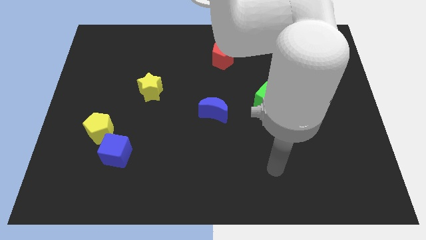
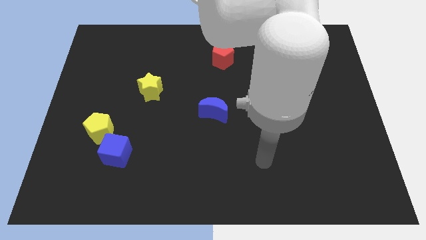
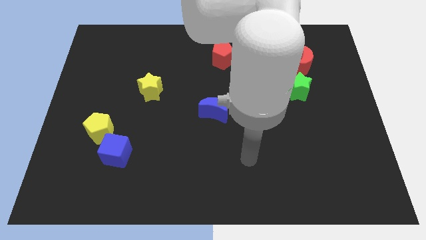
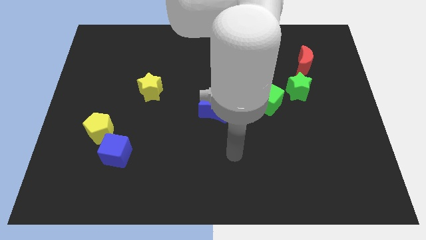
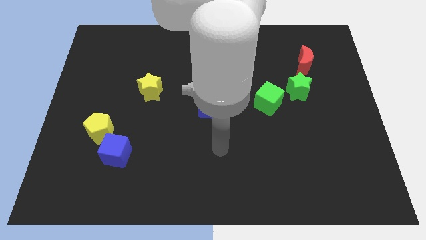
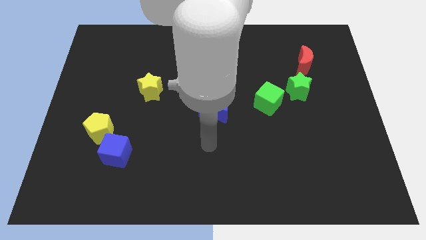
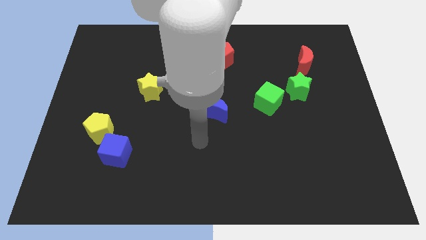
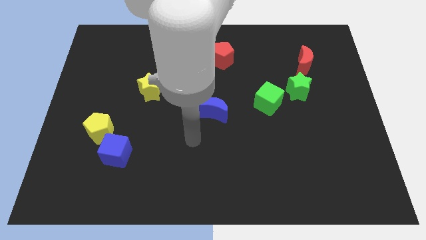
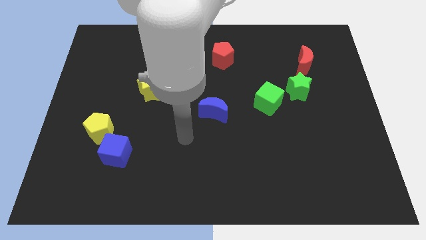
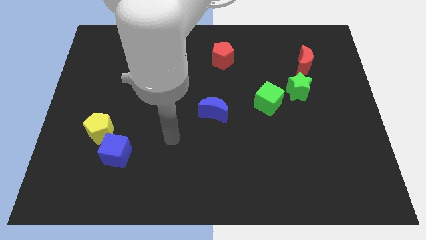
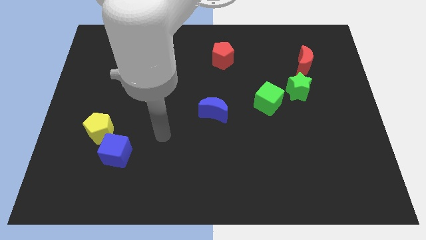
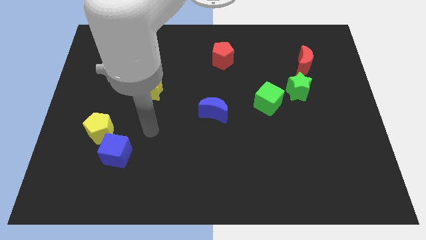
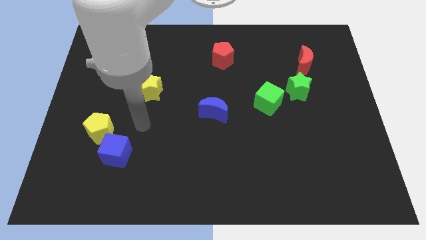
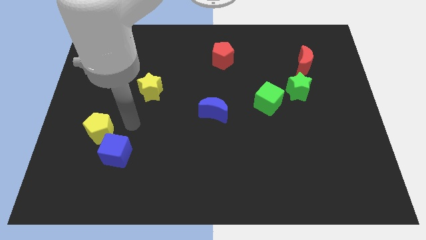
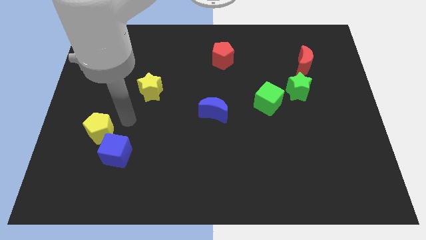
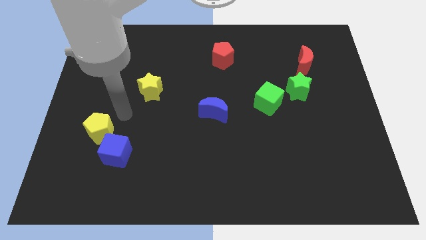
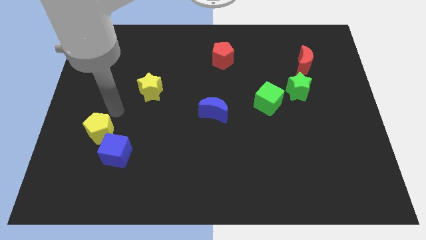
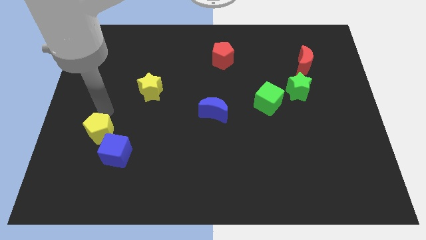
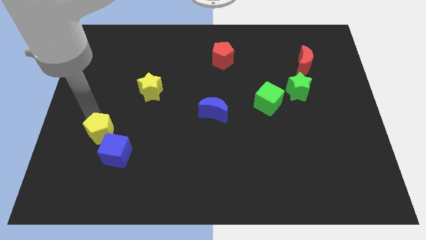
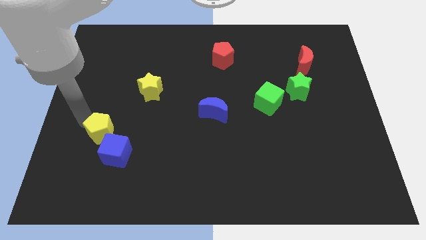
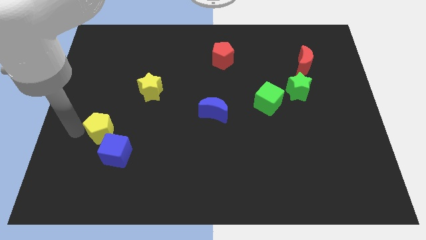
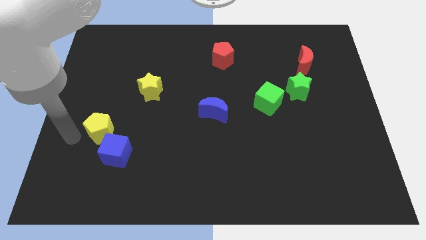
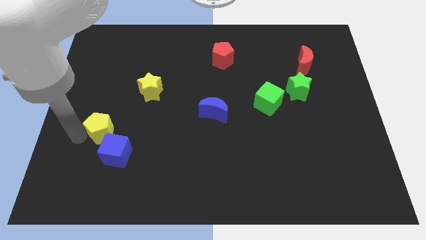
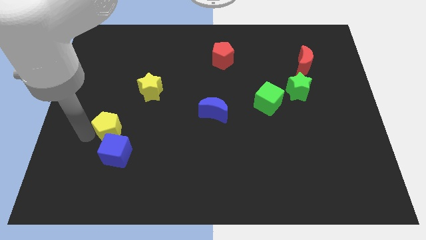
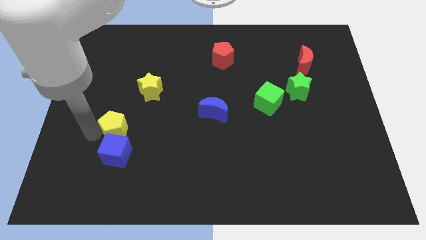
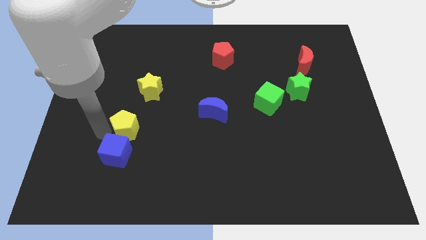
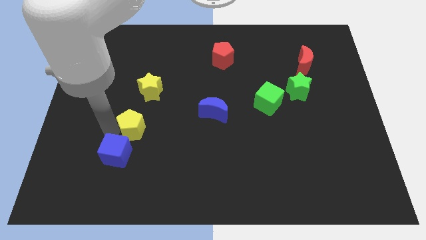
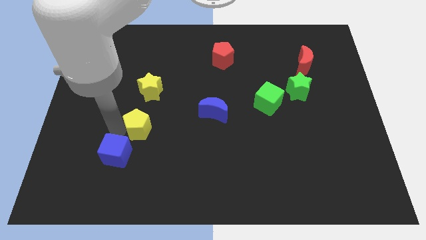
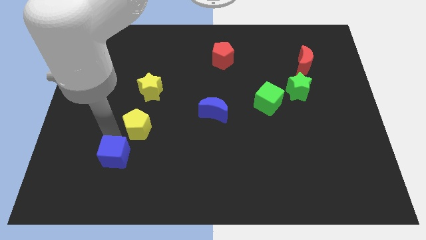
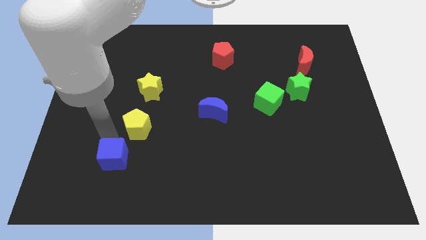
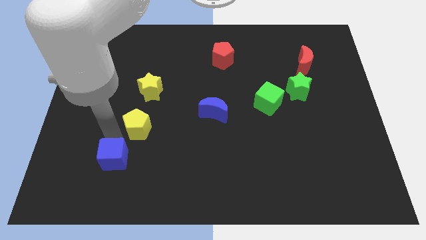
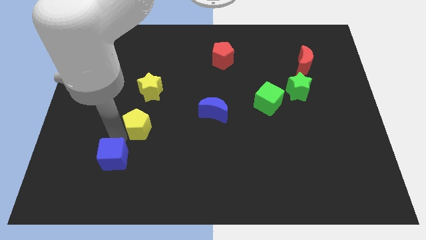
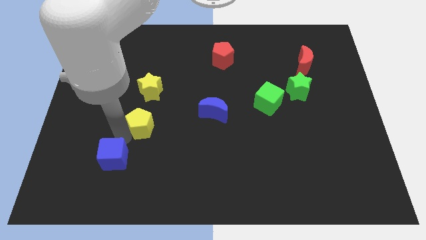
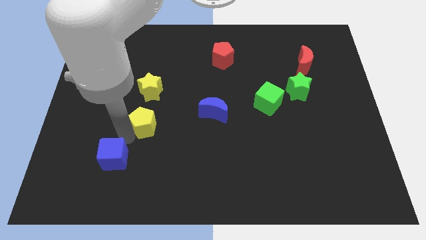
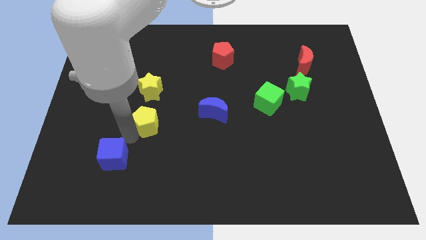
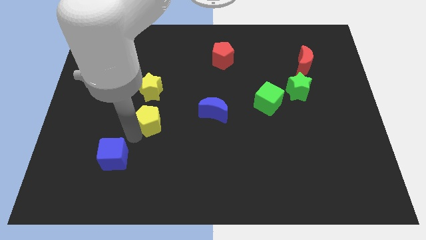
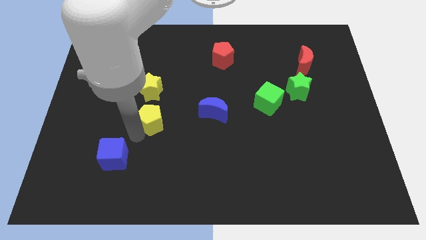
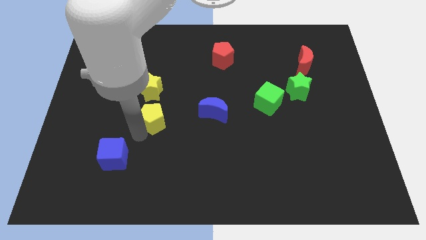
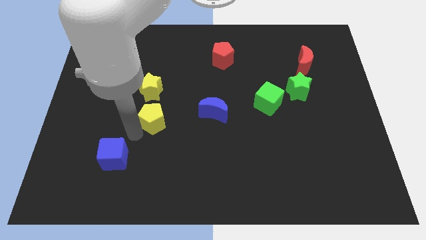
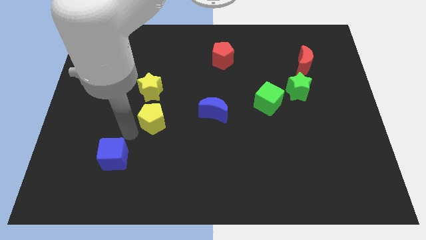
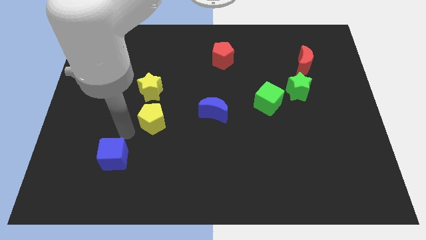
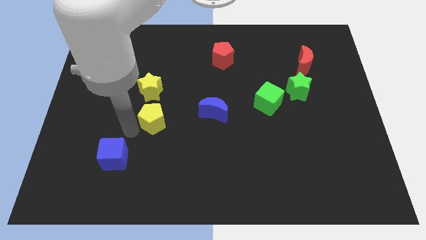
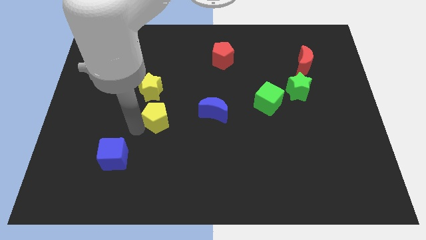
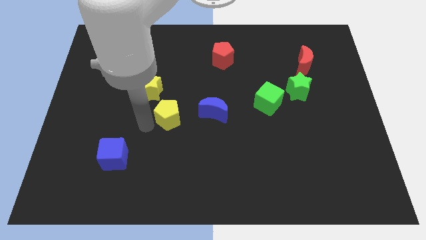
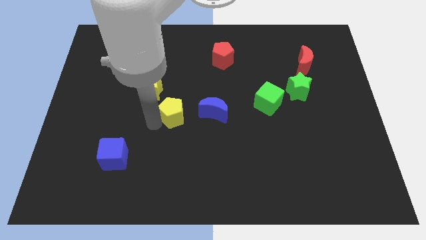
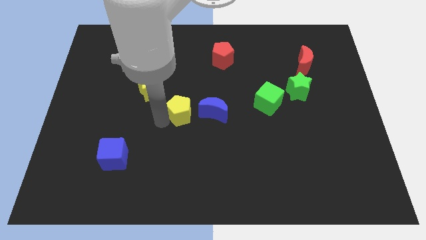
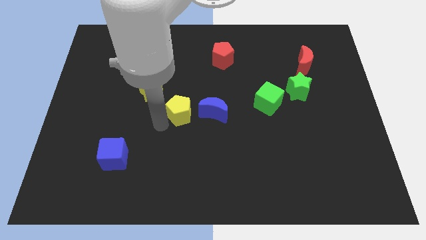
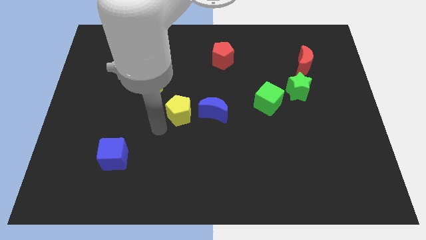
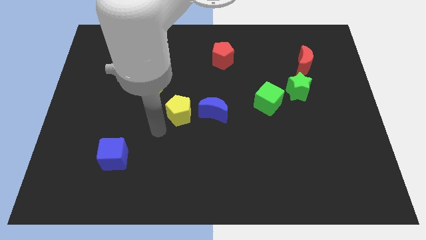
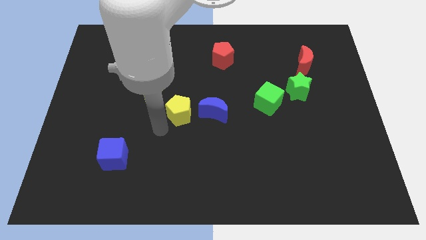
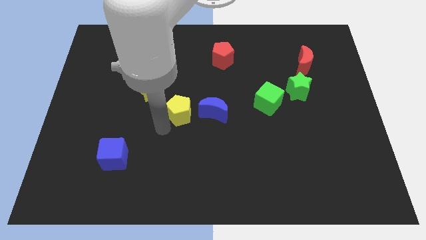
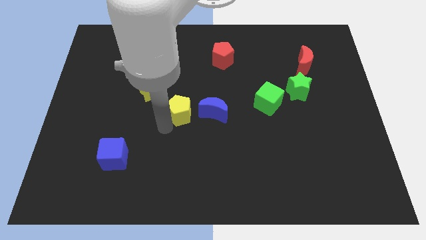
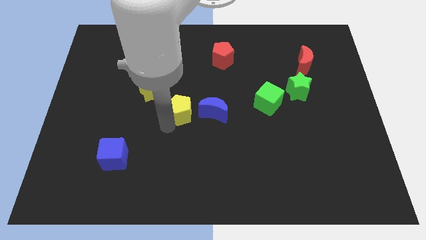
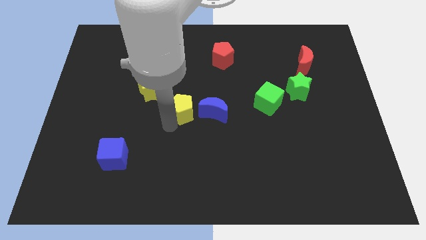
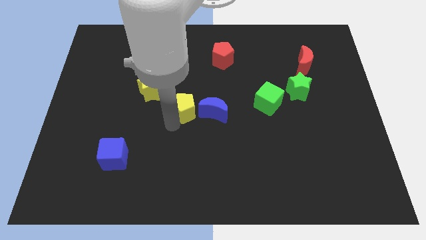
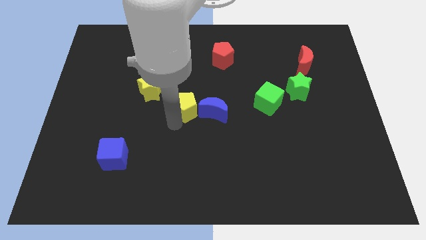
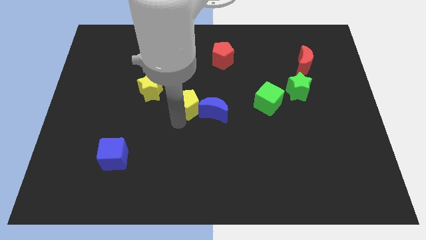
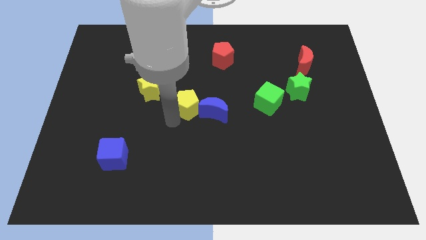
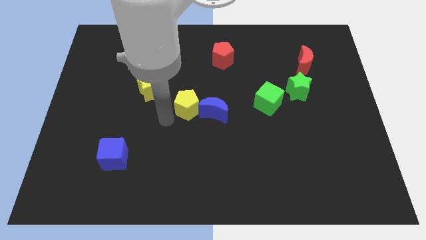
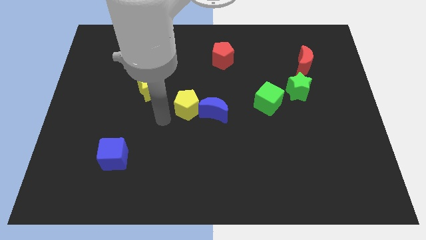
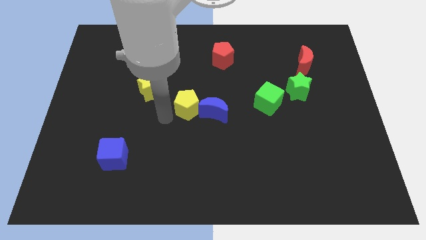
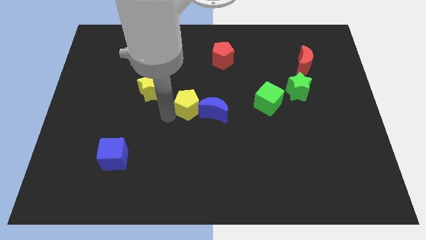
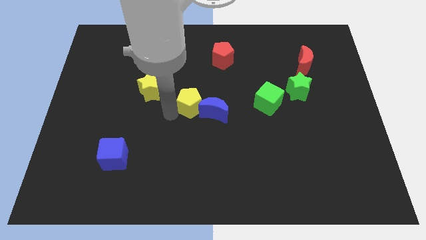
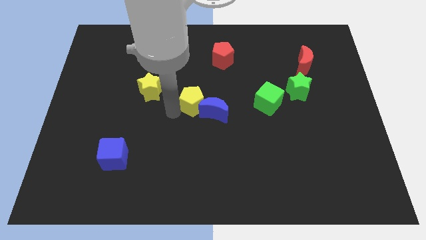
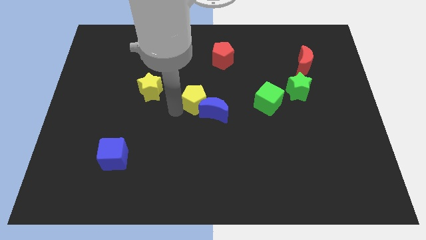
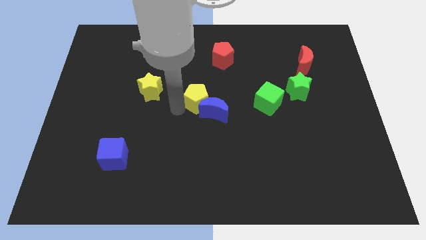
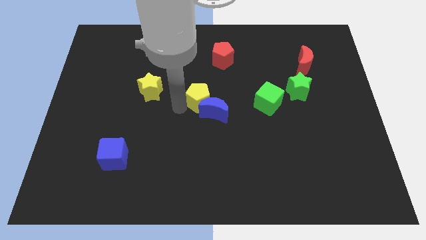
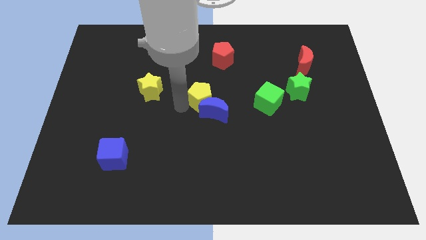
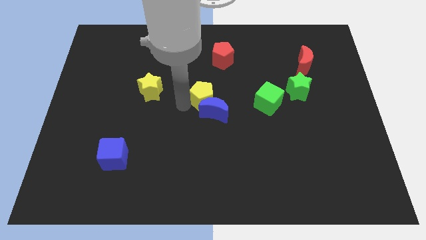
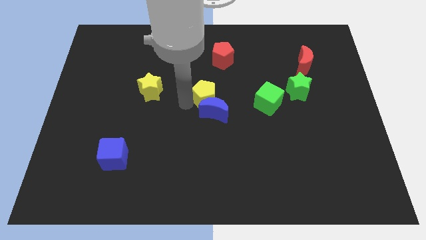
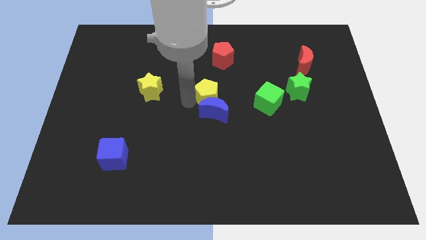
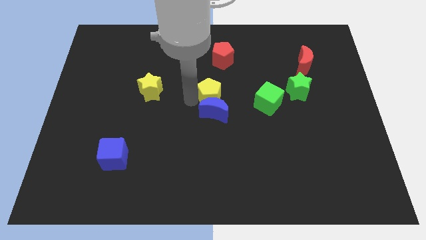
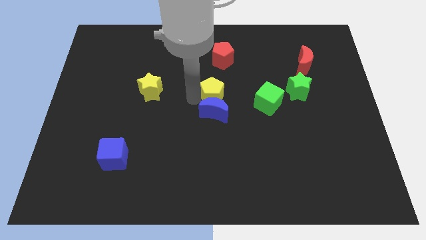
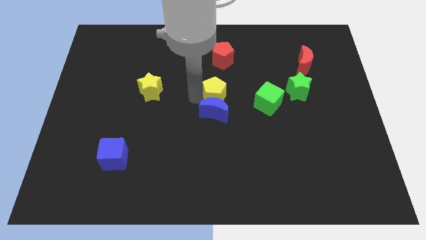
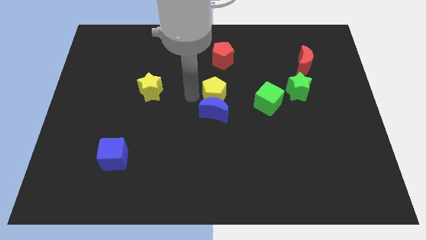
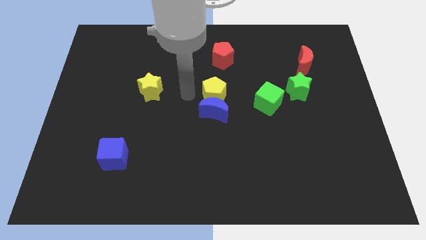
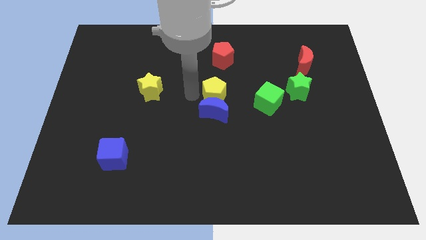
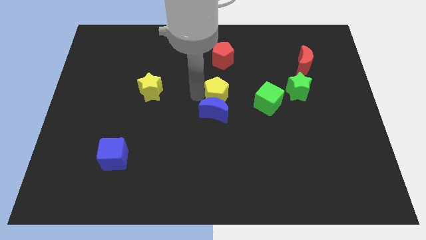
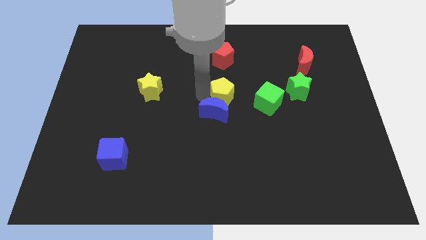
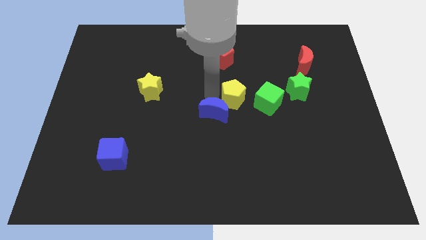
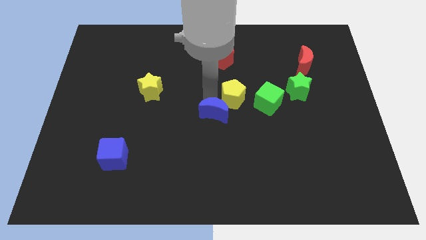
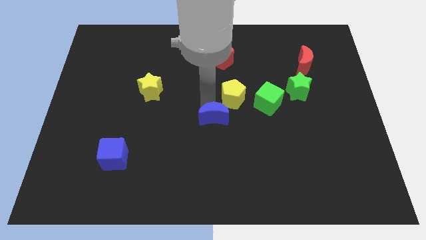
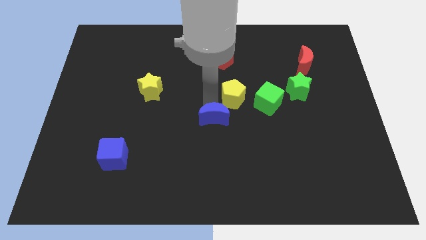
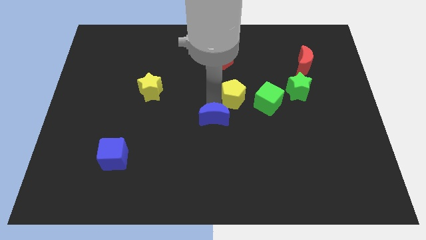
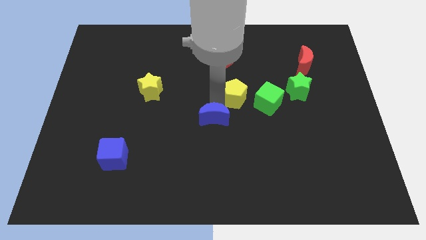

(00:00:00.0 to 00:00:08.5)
move the yellow pentagon to the left of the green star
